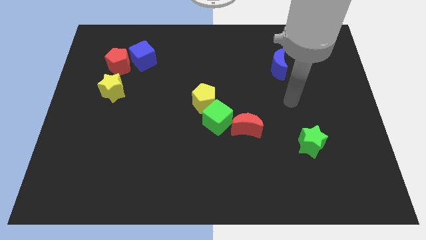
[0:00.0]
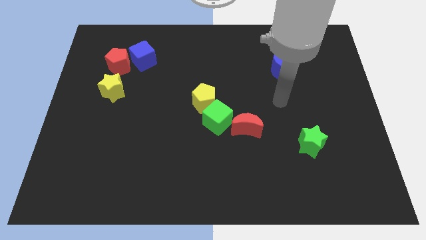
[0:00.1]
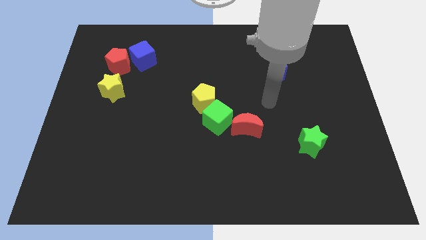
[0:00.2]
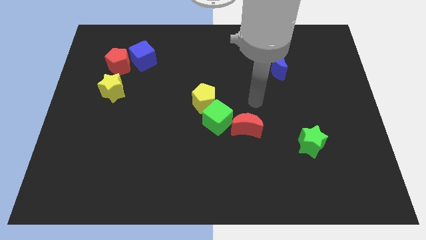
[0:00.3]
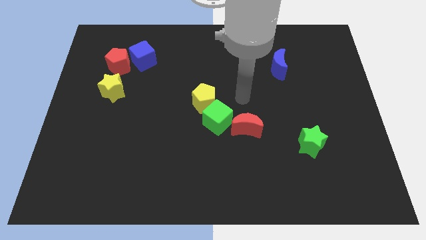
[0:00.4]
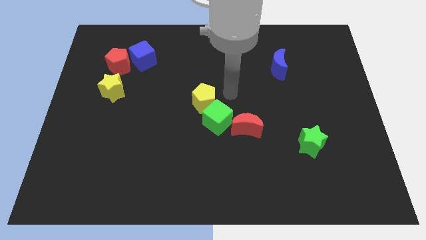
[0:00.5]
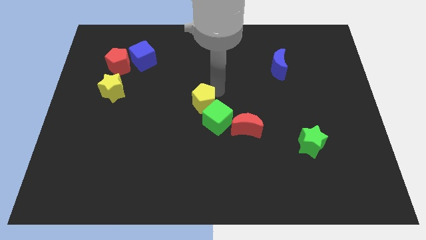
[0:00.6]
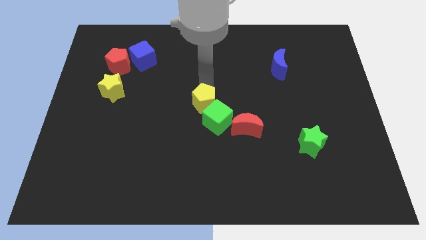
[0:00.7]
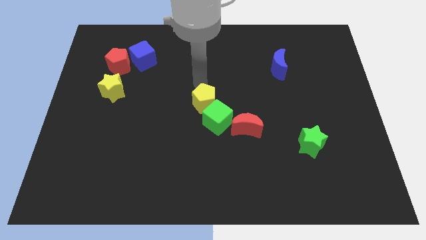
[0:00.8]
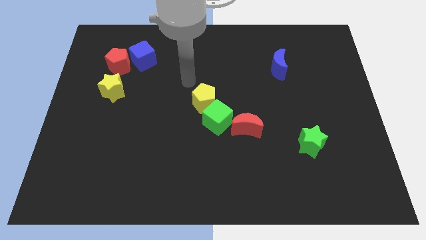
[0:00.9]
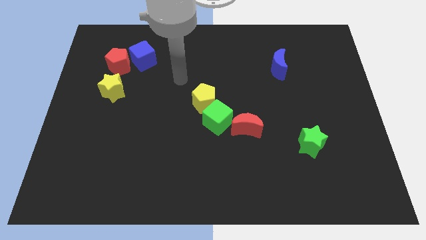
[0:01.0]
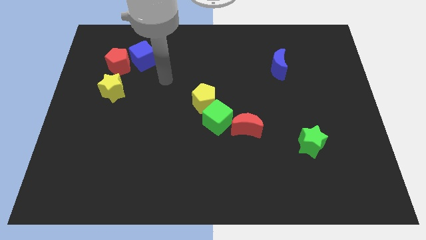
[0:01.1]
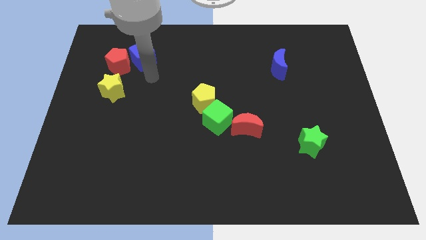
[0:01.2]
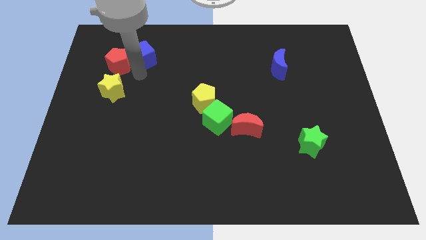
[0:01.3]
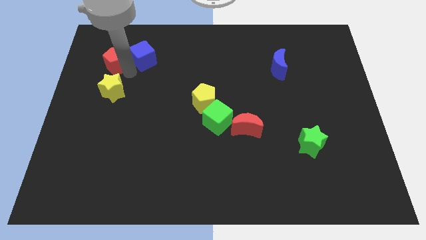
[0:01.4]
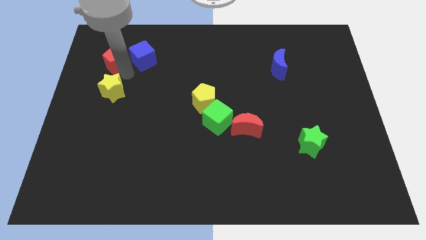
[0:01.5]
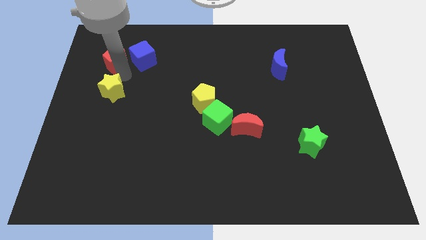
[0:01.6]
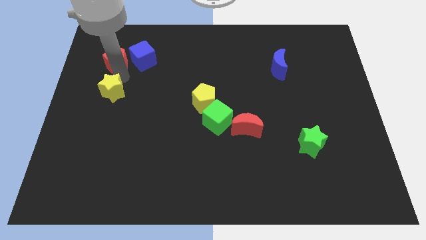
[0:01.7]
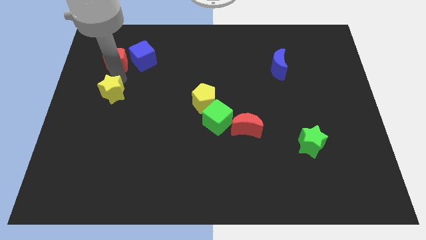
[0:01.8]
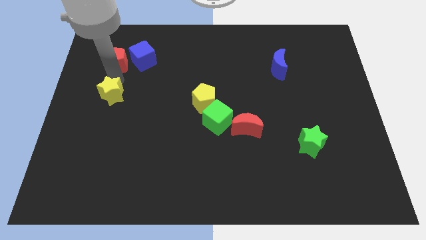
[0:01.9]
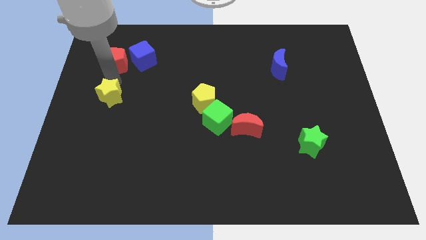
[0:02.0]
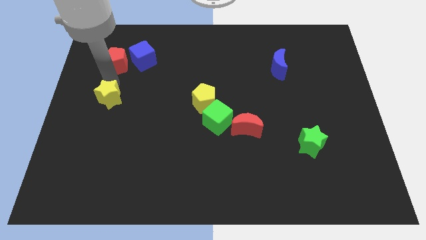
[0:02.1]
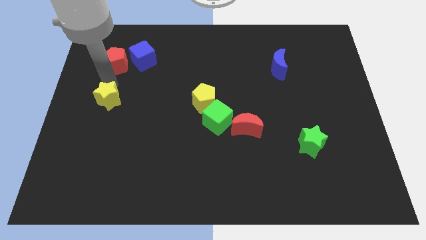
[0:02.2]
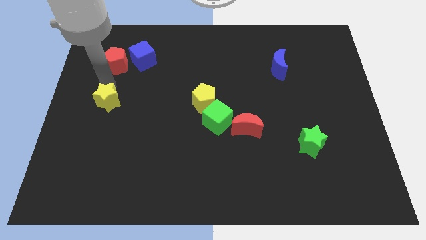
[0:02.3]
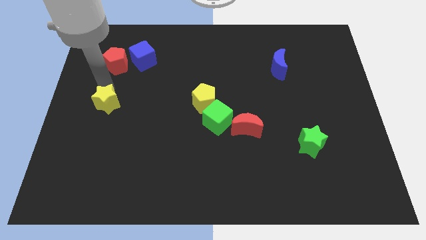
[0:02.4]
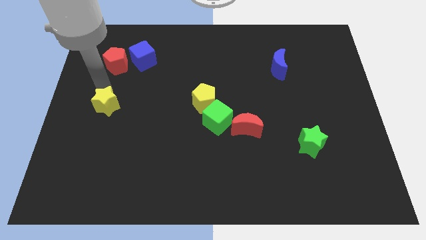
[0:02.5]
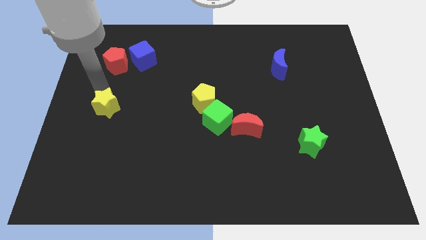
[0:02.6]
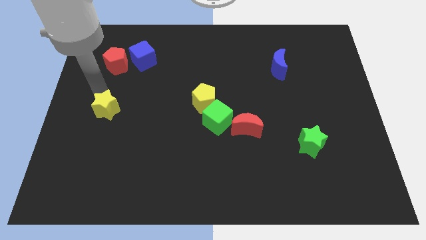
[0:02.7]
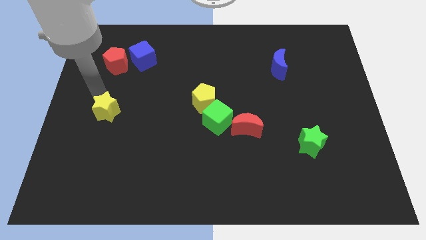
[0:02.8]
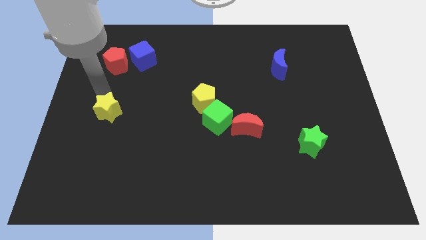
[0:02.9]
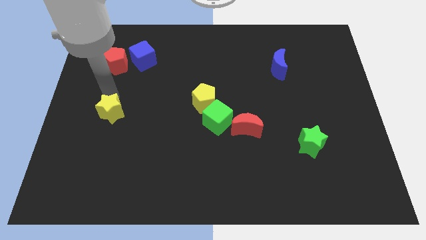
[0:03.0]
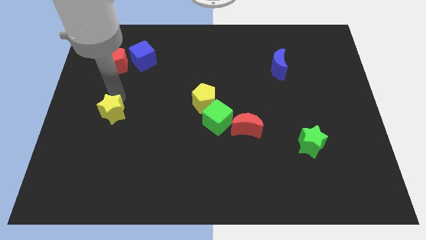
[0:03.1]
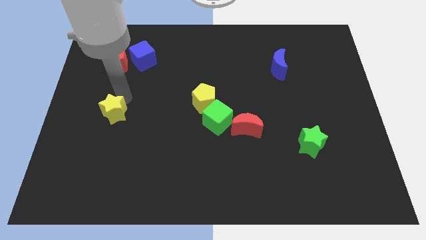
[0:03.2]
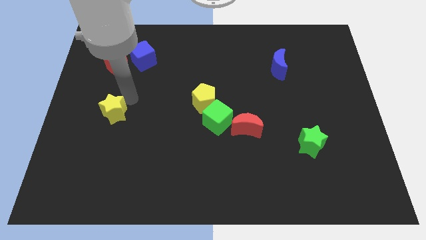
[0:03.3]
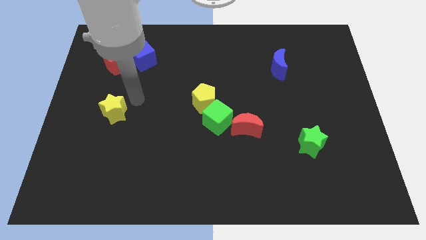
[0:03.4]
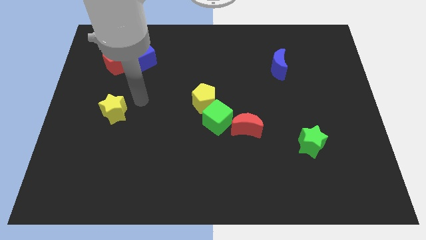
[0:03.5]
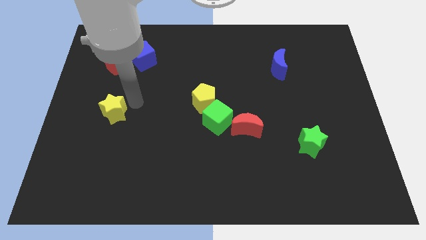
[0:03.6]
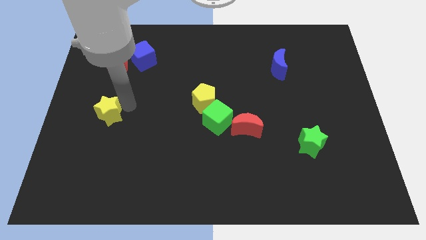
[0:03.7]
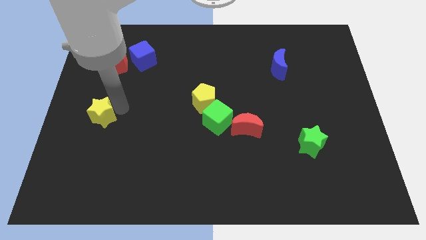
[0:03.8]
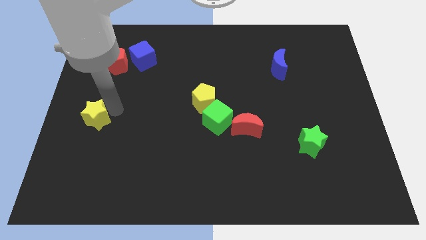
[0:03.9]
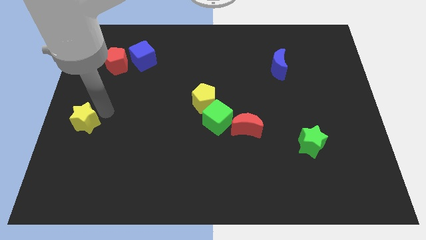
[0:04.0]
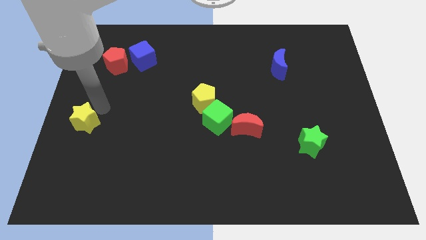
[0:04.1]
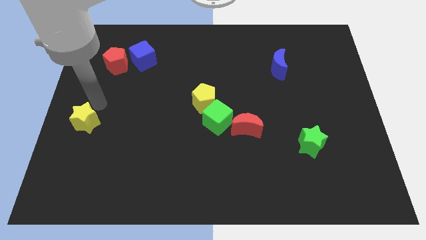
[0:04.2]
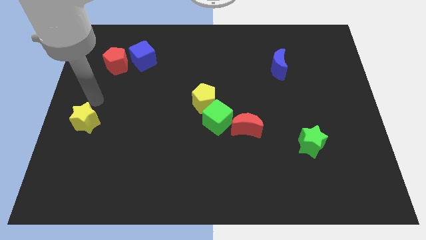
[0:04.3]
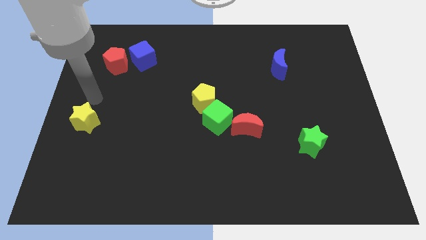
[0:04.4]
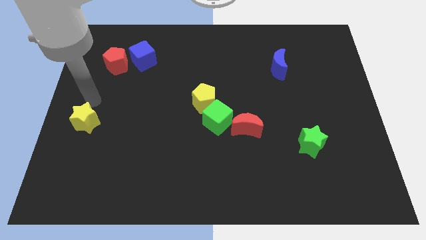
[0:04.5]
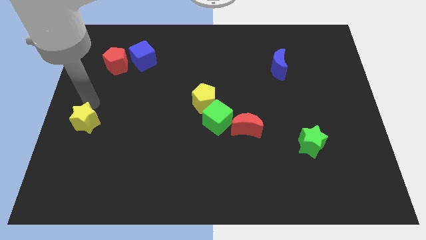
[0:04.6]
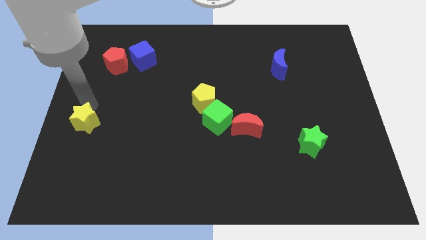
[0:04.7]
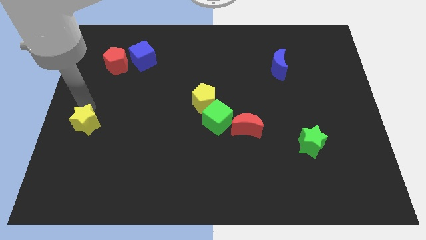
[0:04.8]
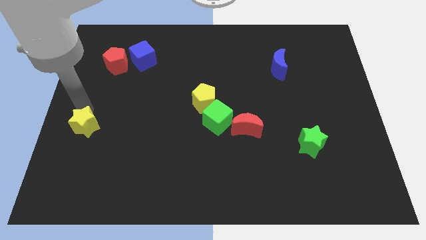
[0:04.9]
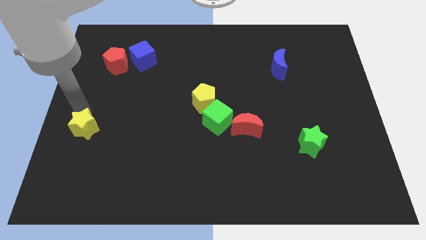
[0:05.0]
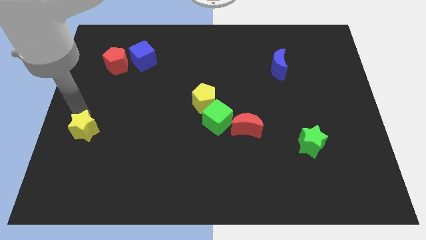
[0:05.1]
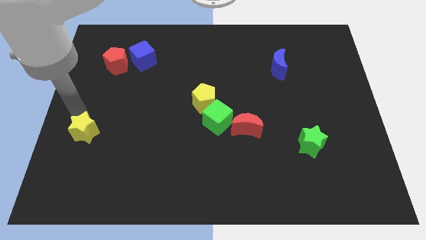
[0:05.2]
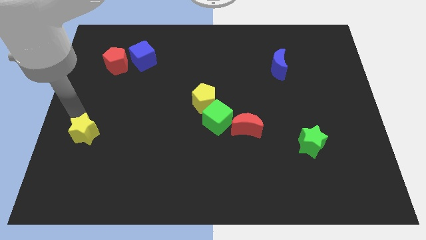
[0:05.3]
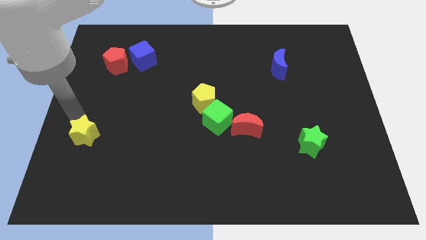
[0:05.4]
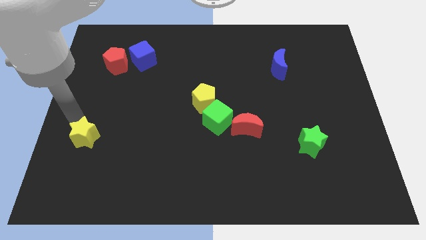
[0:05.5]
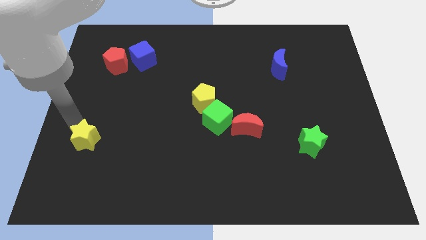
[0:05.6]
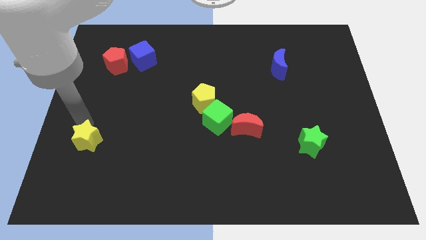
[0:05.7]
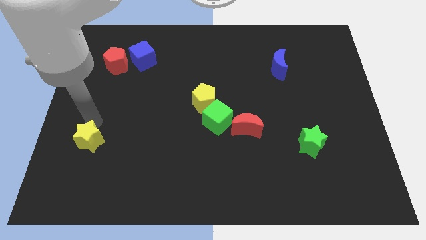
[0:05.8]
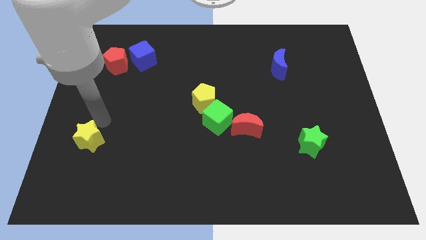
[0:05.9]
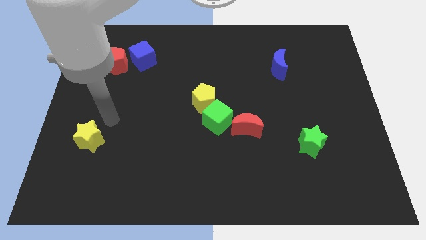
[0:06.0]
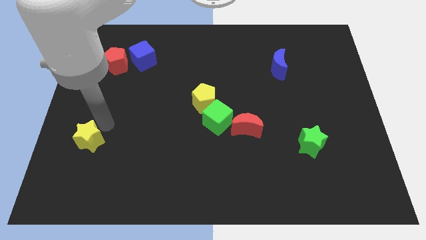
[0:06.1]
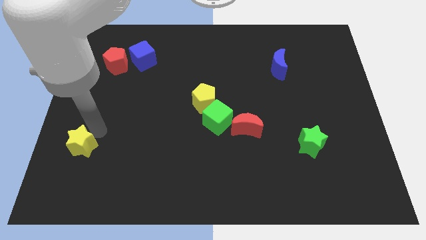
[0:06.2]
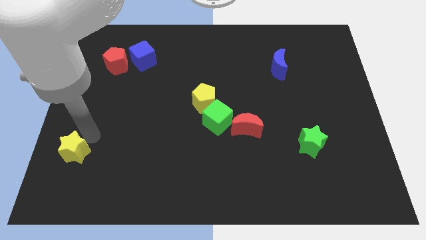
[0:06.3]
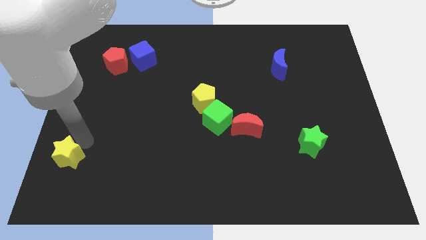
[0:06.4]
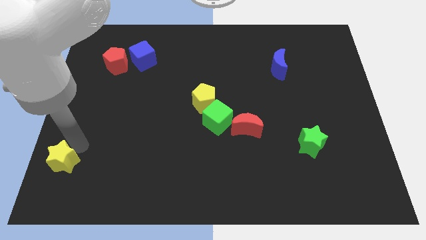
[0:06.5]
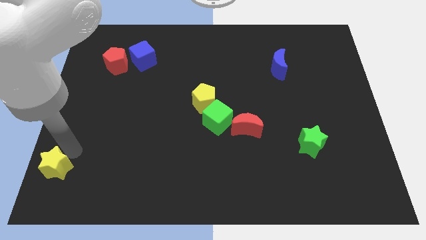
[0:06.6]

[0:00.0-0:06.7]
push the yellow star to the bottom left
